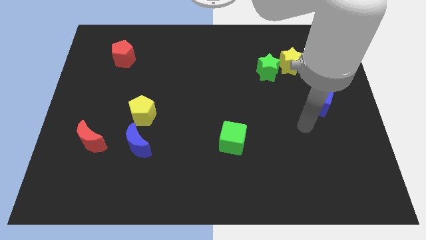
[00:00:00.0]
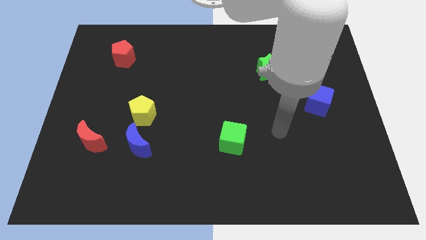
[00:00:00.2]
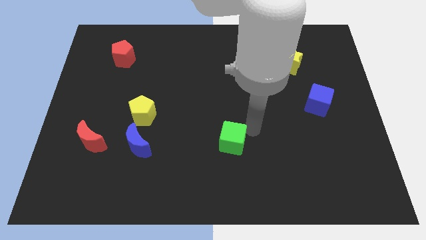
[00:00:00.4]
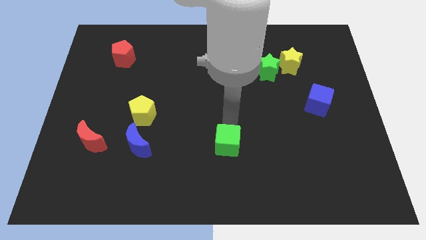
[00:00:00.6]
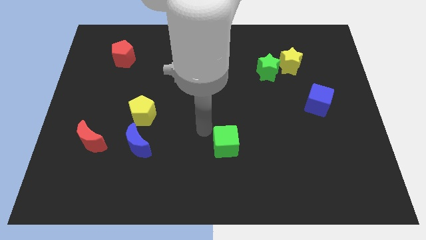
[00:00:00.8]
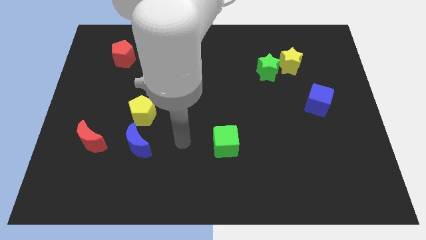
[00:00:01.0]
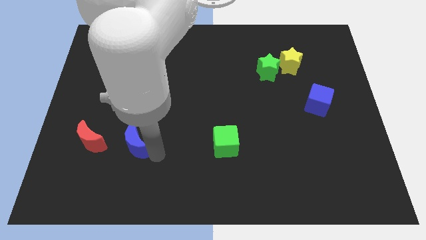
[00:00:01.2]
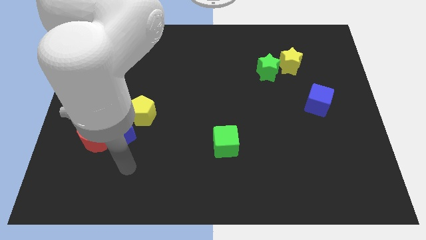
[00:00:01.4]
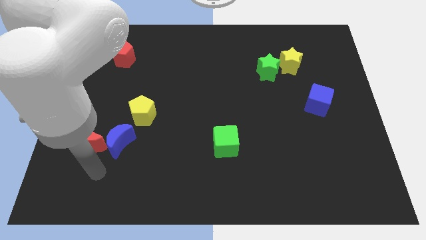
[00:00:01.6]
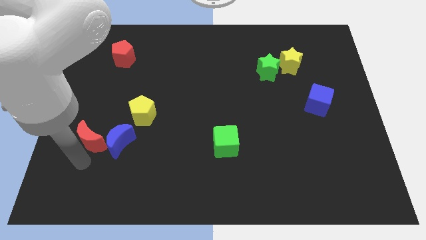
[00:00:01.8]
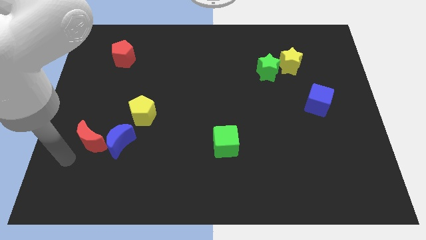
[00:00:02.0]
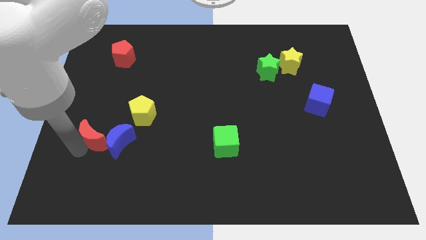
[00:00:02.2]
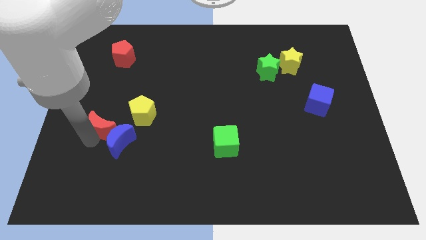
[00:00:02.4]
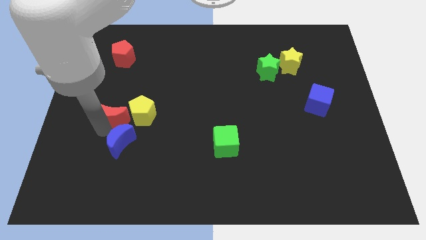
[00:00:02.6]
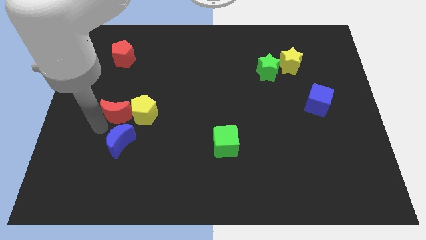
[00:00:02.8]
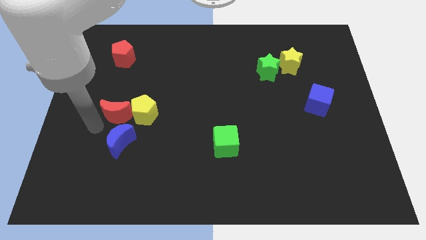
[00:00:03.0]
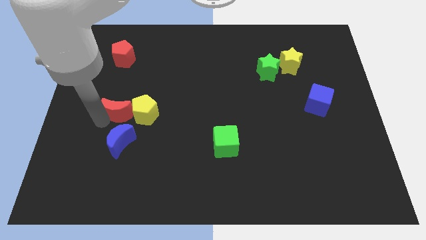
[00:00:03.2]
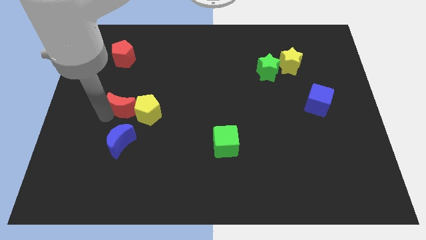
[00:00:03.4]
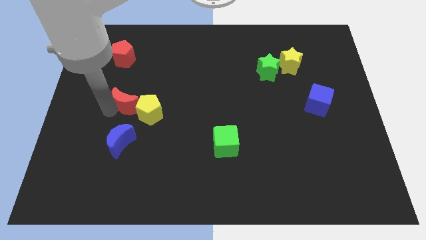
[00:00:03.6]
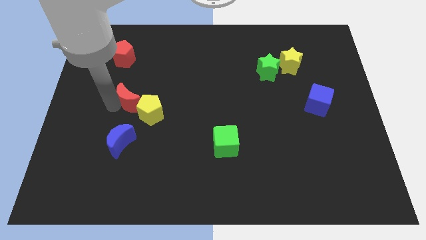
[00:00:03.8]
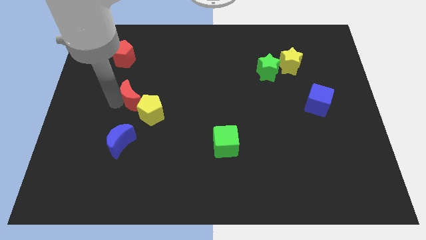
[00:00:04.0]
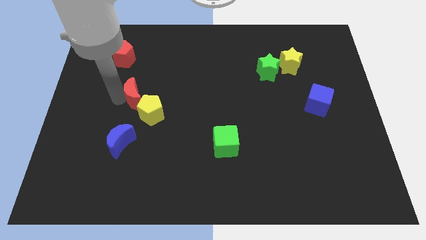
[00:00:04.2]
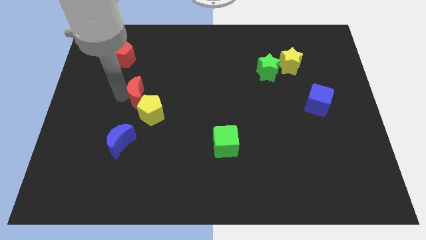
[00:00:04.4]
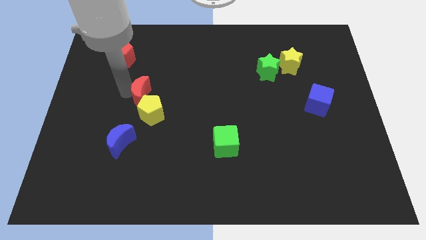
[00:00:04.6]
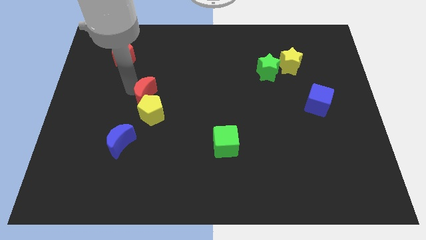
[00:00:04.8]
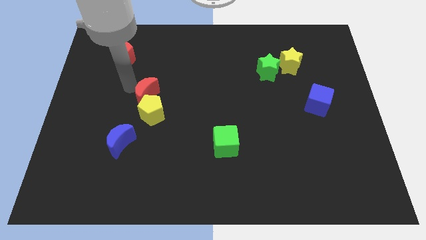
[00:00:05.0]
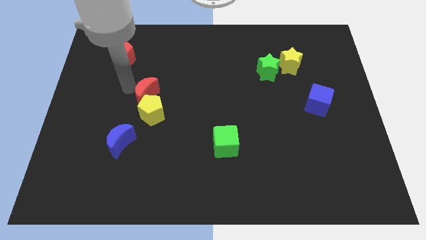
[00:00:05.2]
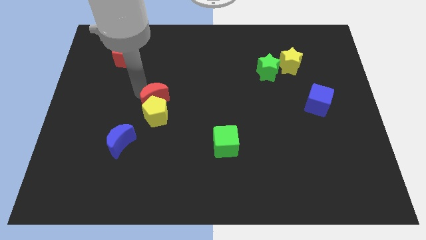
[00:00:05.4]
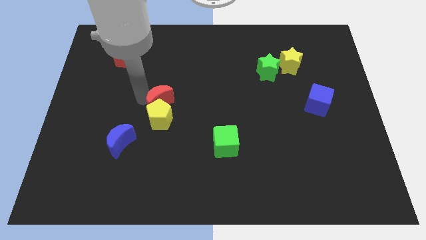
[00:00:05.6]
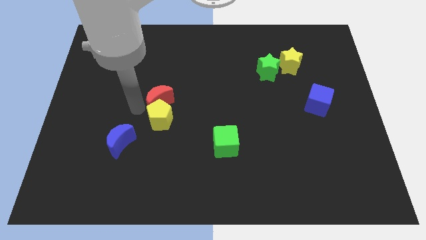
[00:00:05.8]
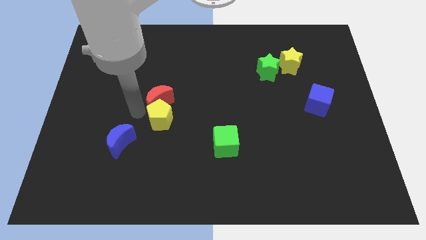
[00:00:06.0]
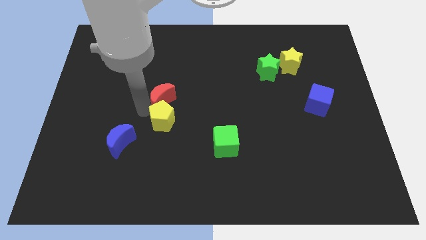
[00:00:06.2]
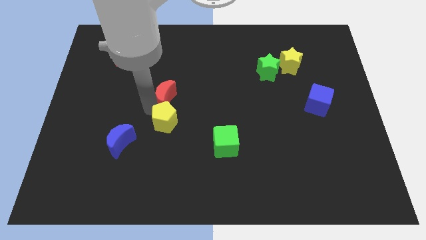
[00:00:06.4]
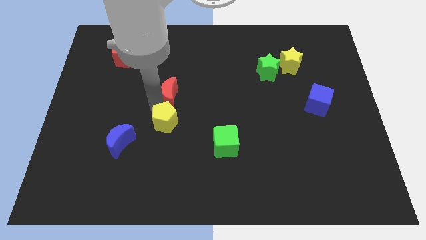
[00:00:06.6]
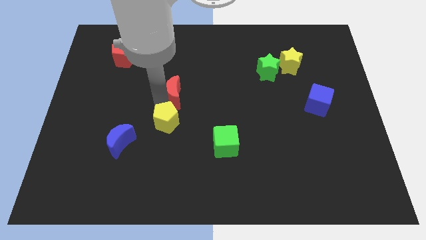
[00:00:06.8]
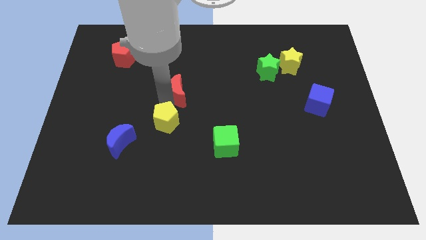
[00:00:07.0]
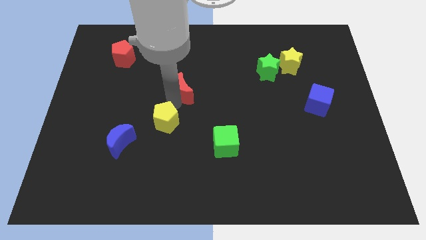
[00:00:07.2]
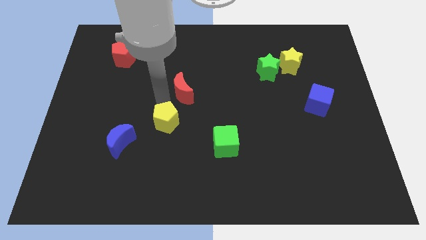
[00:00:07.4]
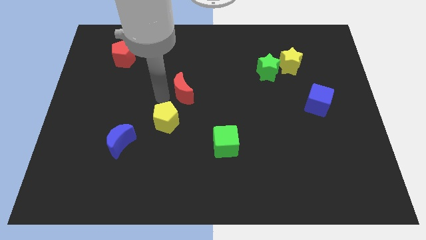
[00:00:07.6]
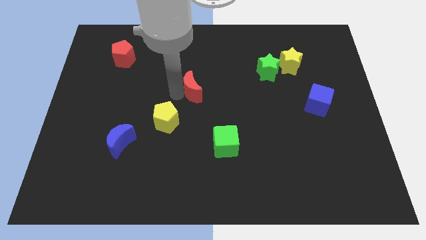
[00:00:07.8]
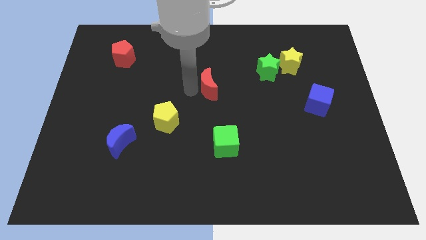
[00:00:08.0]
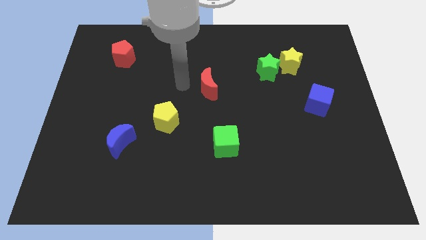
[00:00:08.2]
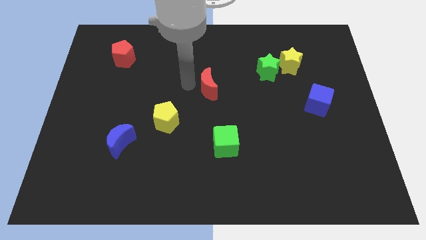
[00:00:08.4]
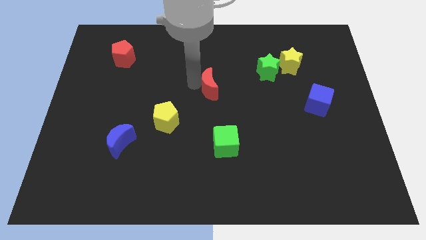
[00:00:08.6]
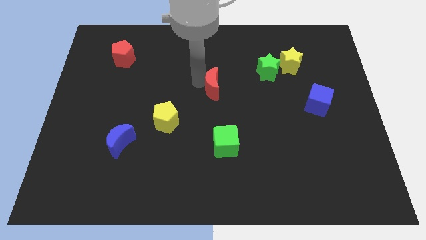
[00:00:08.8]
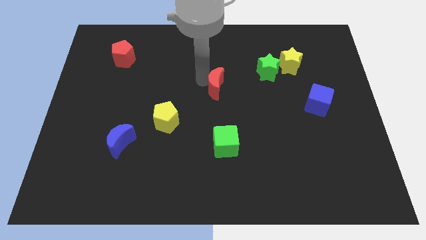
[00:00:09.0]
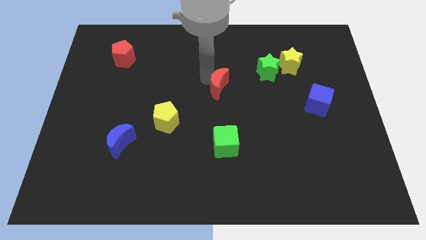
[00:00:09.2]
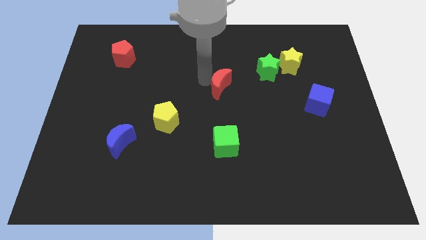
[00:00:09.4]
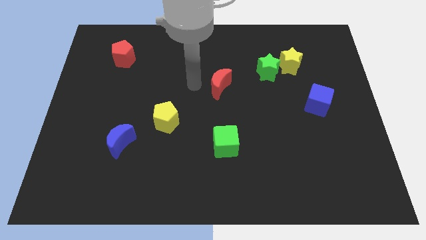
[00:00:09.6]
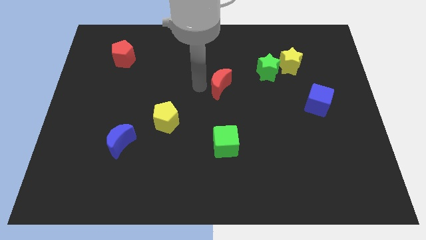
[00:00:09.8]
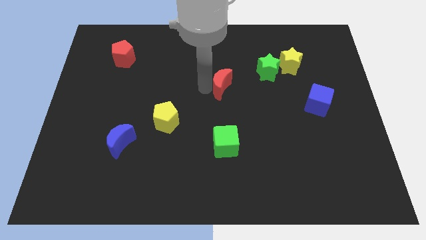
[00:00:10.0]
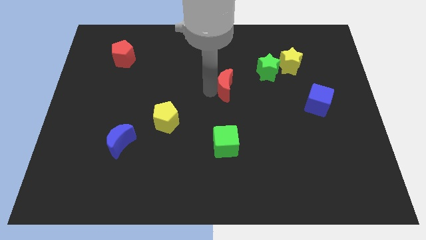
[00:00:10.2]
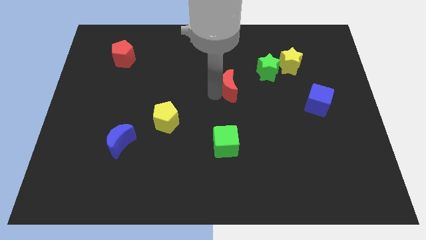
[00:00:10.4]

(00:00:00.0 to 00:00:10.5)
slide the red moon to the bottom left side of the green star

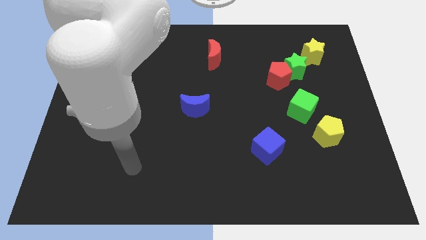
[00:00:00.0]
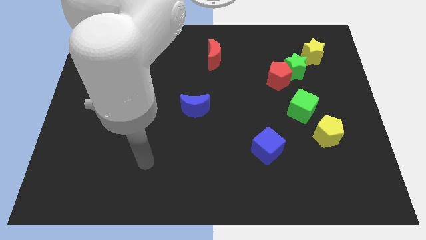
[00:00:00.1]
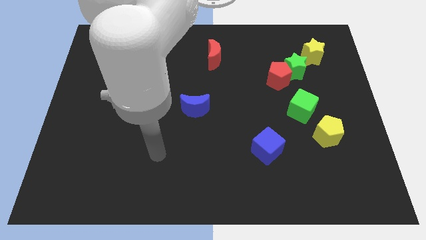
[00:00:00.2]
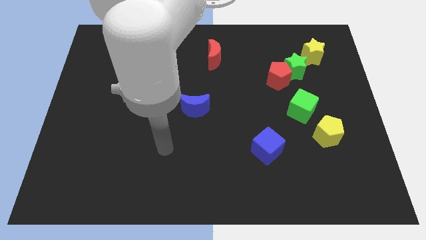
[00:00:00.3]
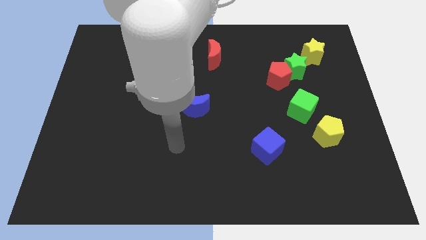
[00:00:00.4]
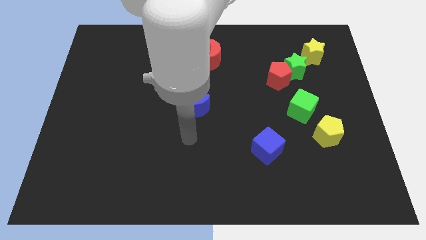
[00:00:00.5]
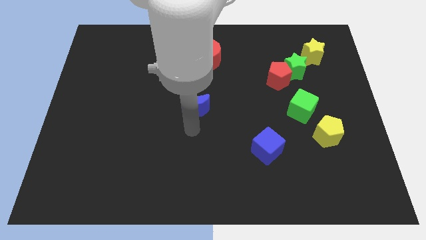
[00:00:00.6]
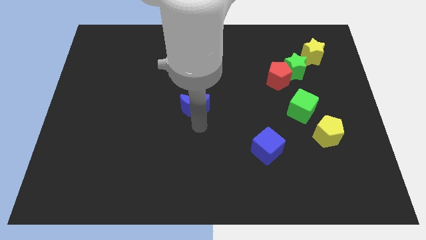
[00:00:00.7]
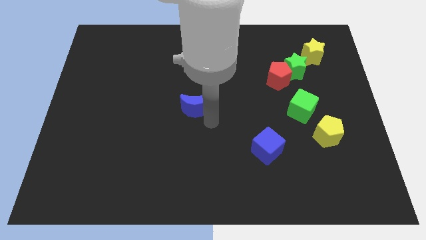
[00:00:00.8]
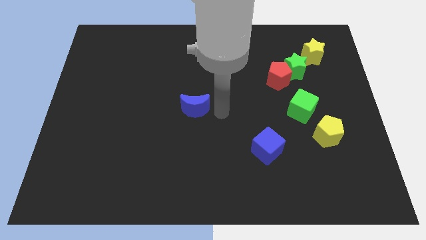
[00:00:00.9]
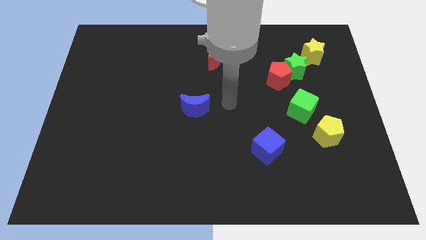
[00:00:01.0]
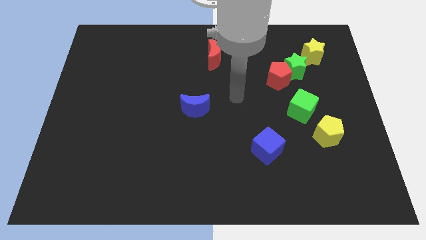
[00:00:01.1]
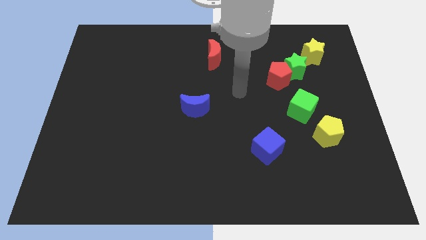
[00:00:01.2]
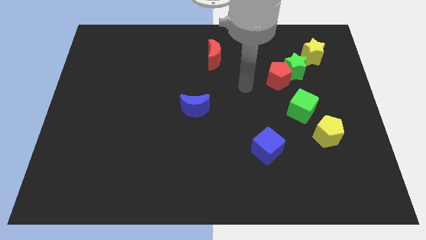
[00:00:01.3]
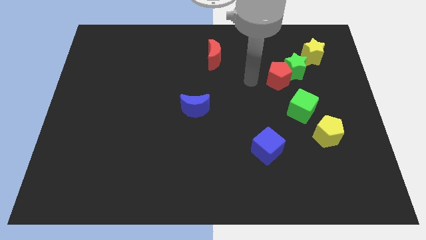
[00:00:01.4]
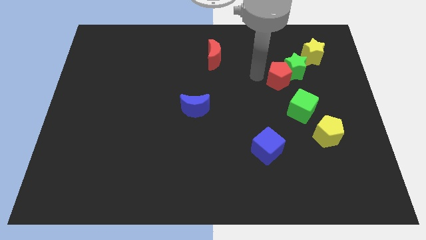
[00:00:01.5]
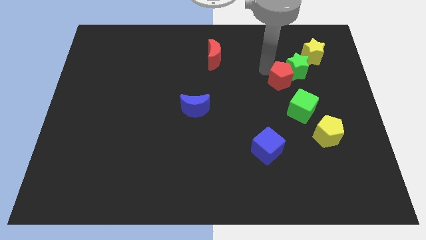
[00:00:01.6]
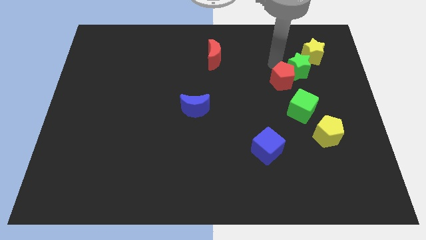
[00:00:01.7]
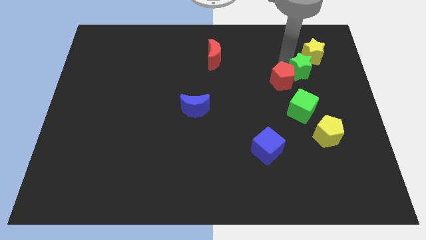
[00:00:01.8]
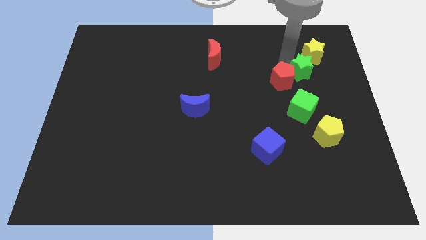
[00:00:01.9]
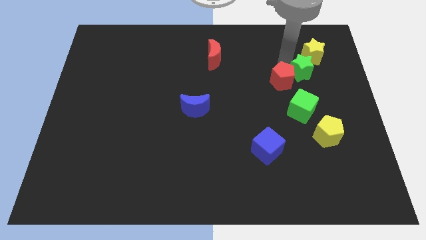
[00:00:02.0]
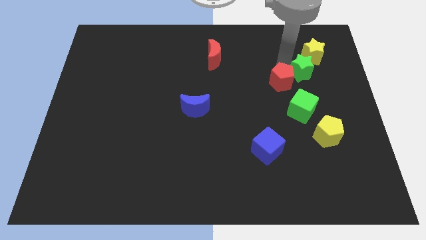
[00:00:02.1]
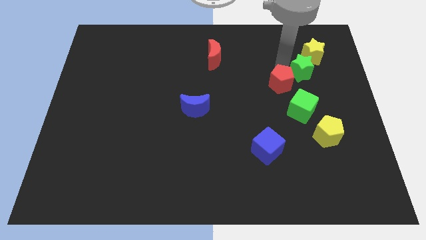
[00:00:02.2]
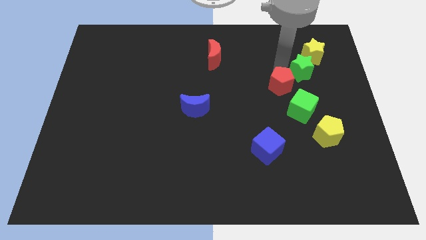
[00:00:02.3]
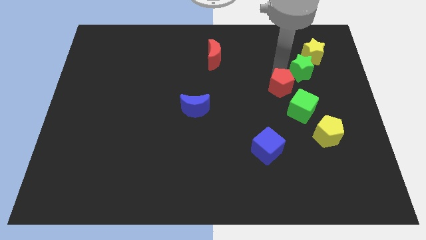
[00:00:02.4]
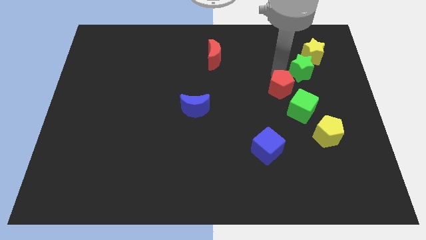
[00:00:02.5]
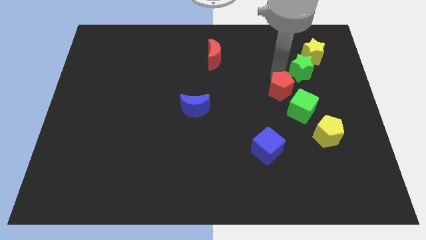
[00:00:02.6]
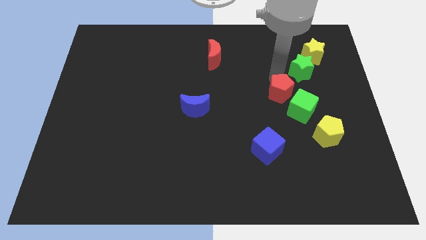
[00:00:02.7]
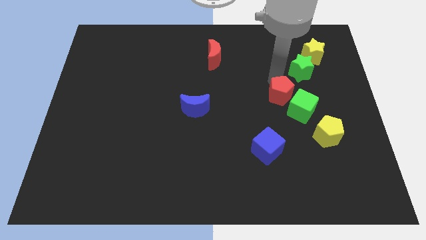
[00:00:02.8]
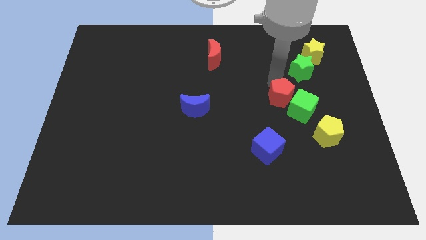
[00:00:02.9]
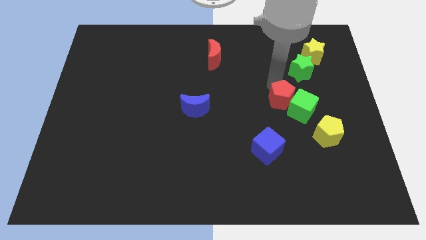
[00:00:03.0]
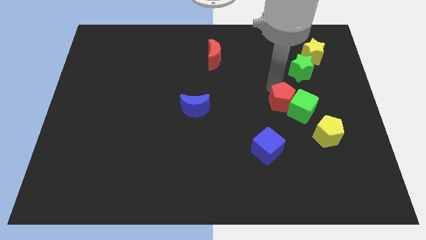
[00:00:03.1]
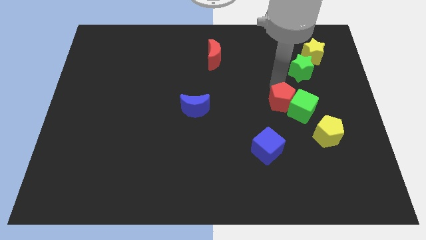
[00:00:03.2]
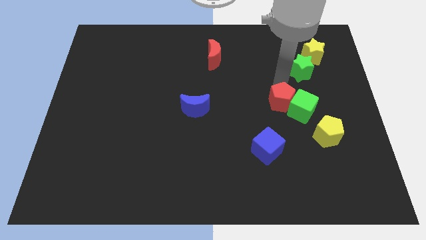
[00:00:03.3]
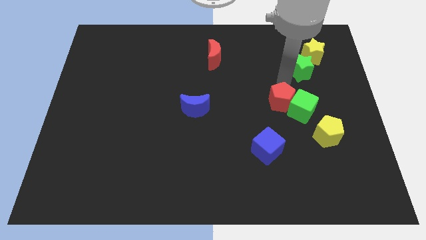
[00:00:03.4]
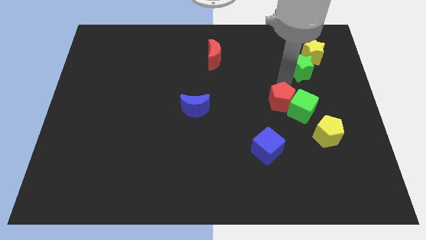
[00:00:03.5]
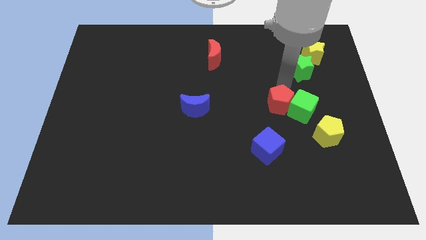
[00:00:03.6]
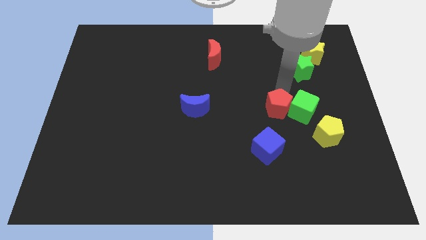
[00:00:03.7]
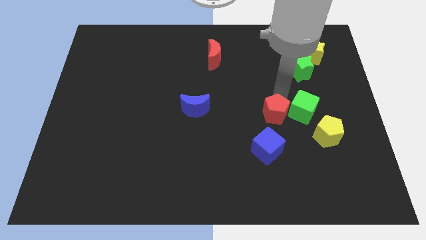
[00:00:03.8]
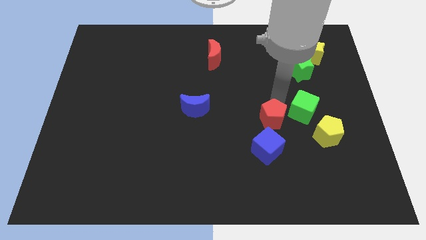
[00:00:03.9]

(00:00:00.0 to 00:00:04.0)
put the red pentagon to the left side of the yellow pentagon
